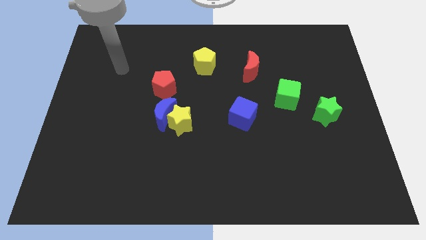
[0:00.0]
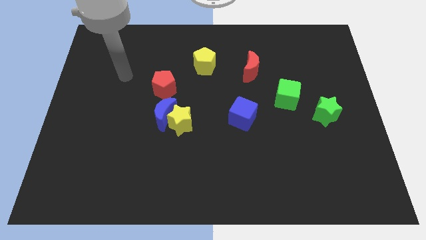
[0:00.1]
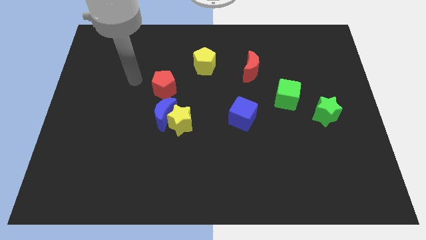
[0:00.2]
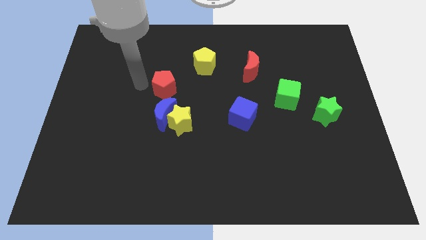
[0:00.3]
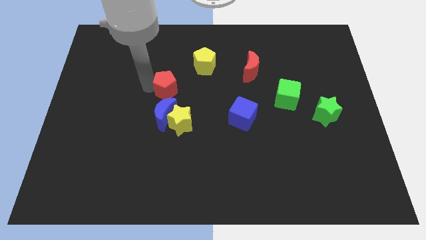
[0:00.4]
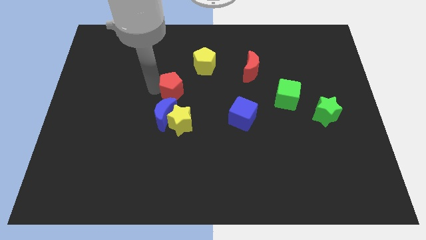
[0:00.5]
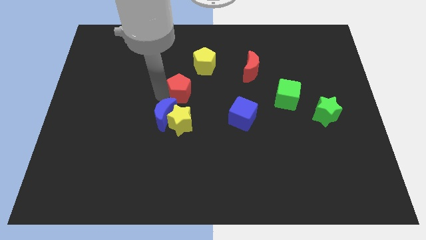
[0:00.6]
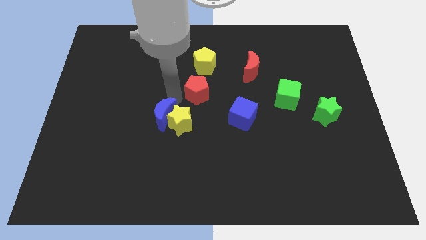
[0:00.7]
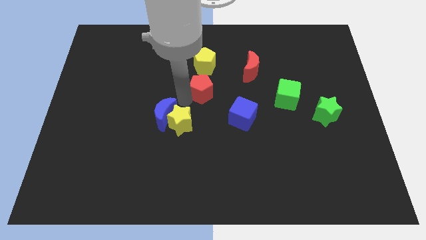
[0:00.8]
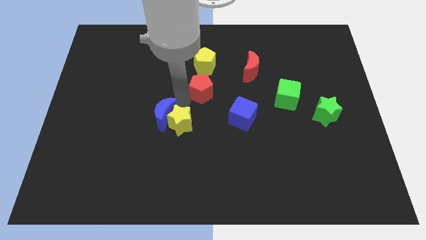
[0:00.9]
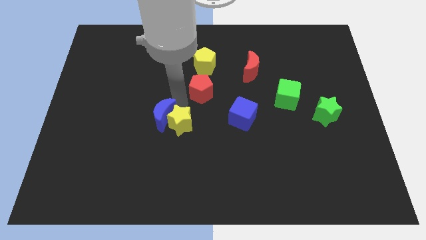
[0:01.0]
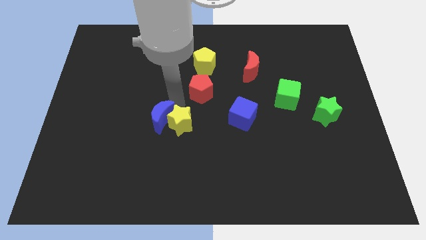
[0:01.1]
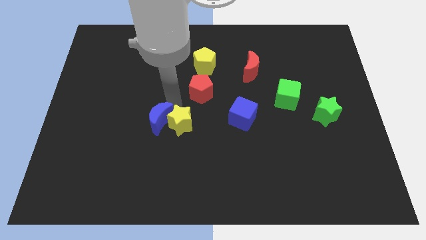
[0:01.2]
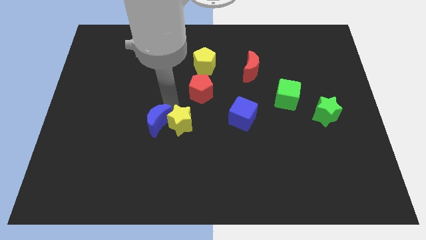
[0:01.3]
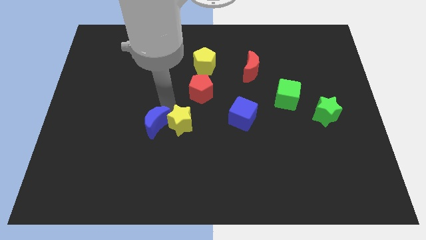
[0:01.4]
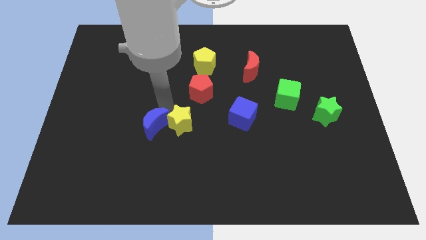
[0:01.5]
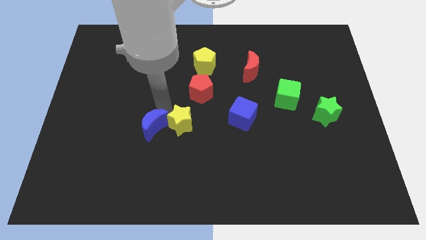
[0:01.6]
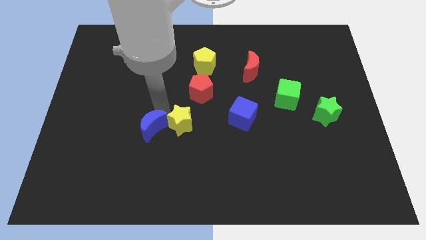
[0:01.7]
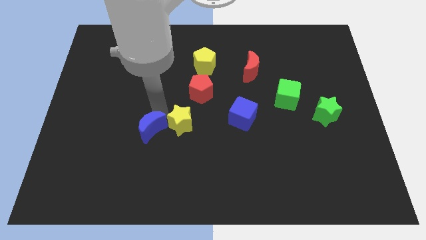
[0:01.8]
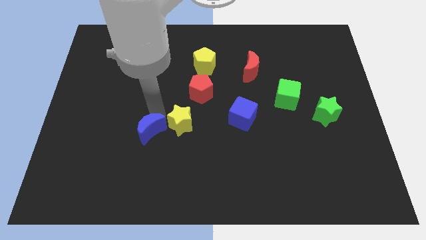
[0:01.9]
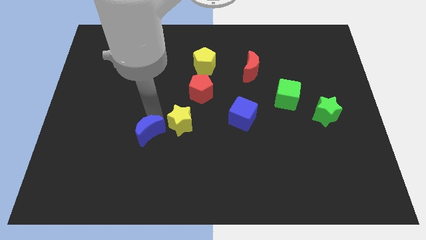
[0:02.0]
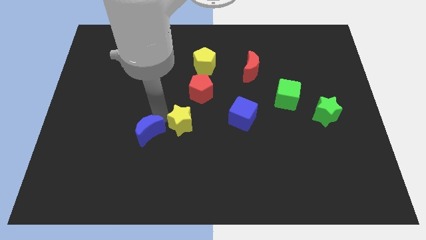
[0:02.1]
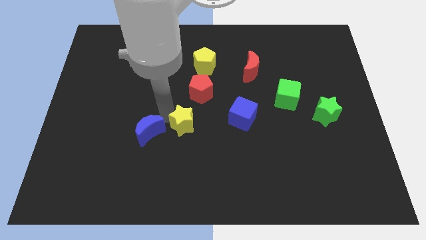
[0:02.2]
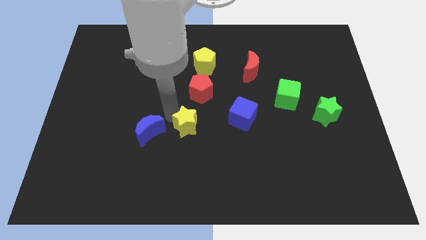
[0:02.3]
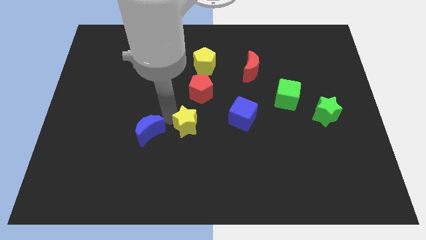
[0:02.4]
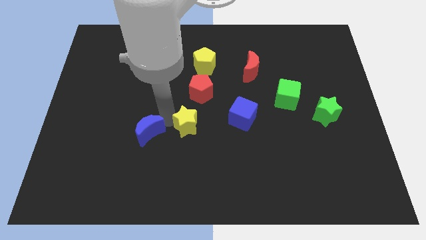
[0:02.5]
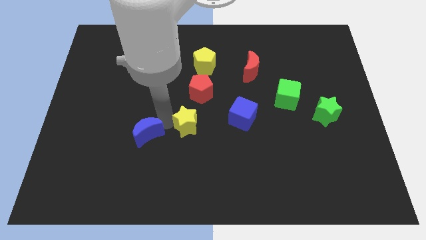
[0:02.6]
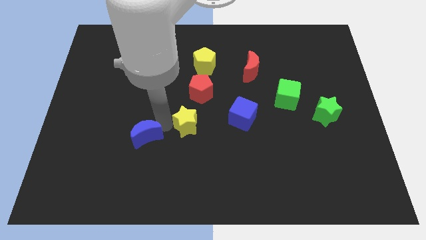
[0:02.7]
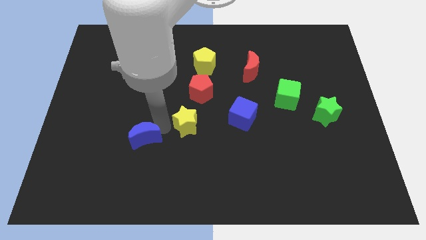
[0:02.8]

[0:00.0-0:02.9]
slightly move the blue moon downwards and left

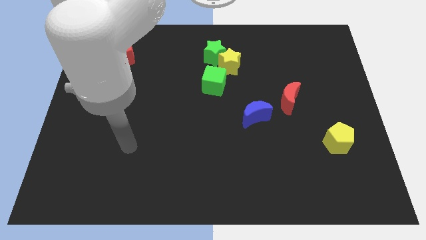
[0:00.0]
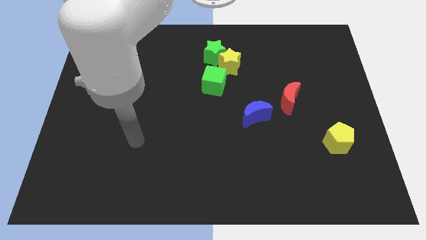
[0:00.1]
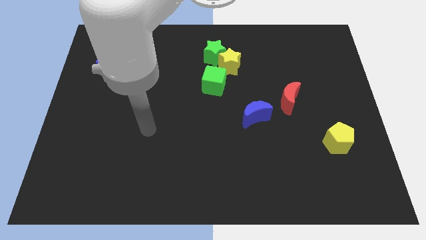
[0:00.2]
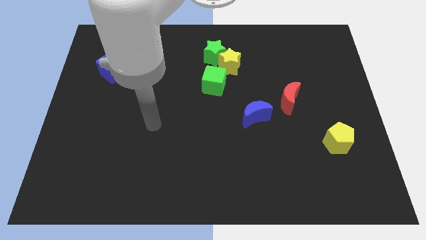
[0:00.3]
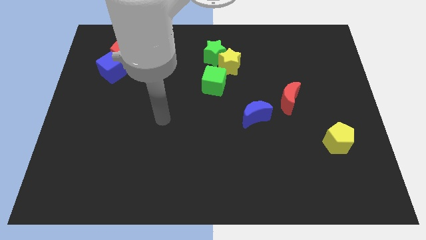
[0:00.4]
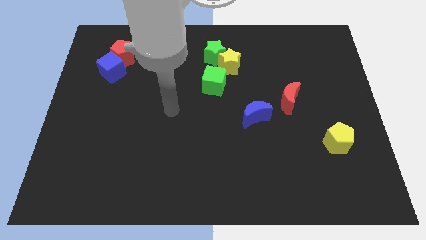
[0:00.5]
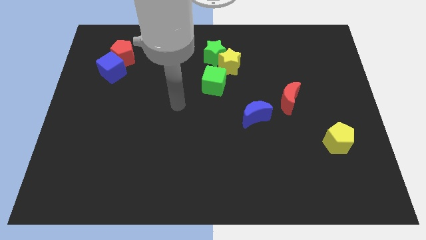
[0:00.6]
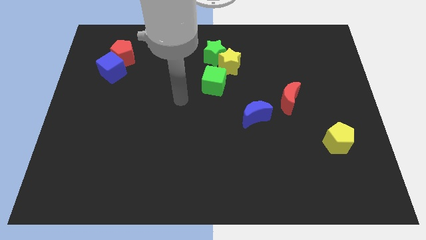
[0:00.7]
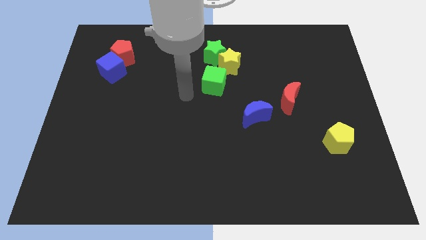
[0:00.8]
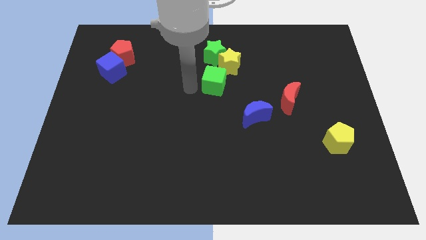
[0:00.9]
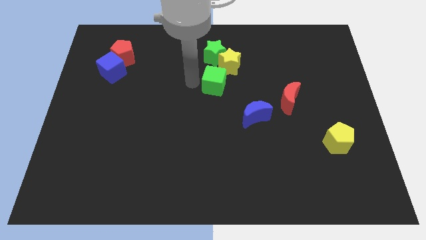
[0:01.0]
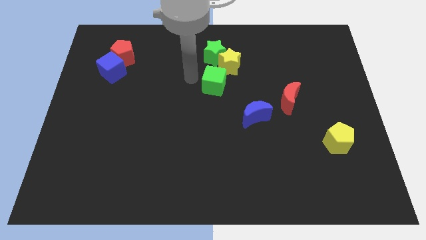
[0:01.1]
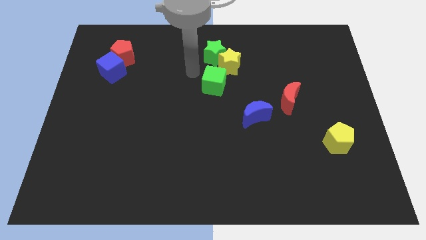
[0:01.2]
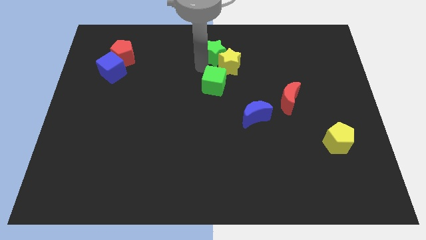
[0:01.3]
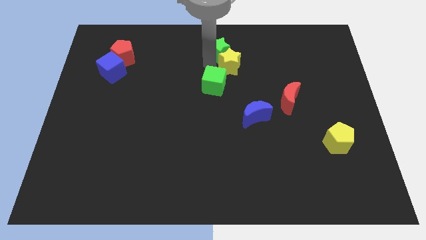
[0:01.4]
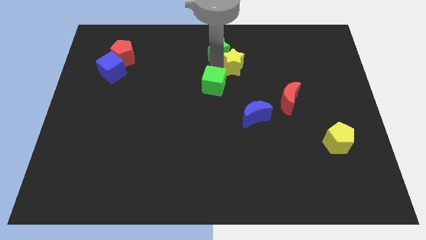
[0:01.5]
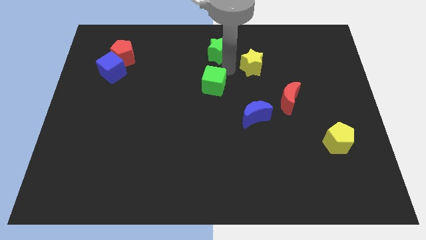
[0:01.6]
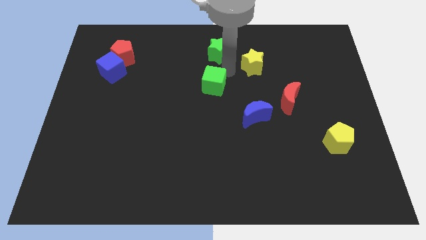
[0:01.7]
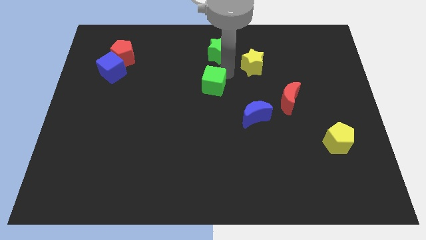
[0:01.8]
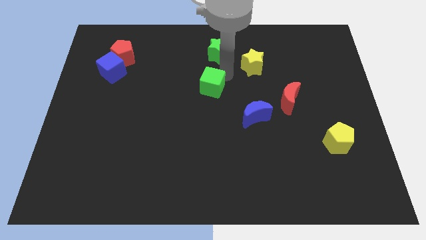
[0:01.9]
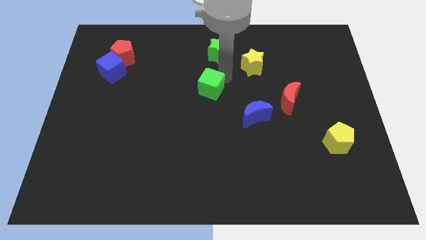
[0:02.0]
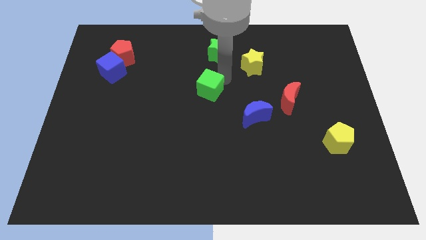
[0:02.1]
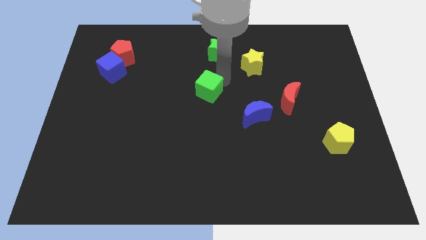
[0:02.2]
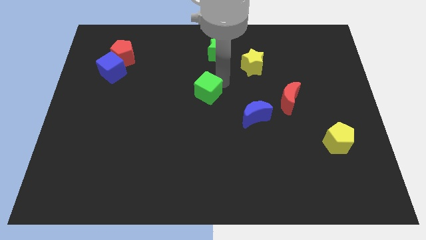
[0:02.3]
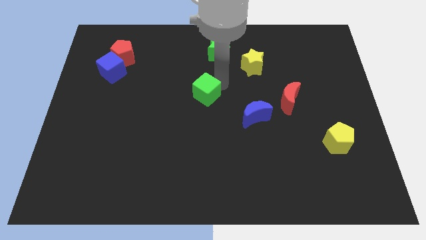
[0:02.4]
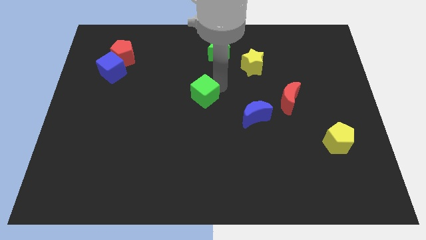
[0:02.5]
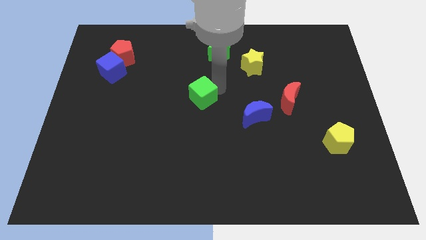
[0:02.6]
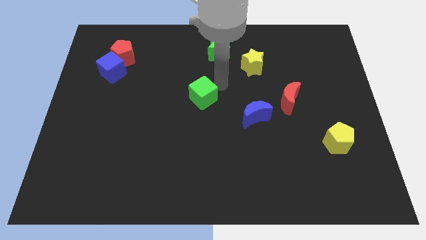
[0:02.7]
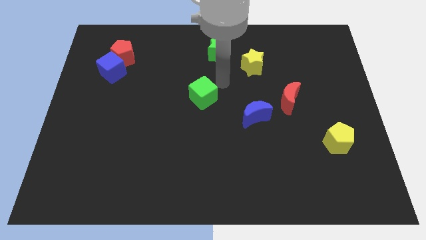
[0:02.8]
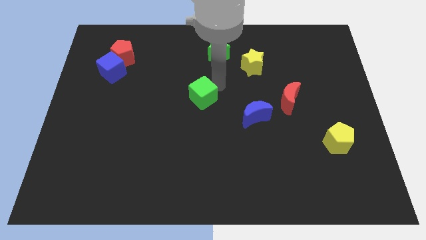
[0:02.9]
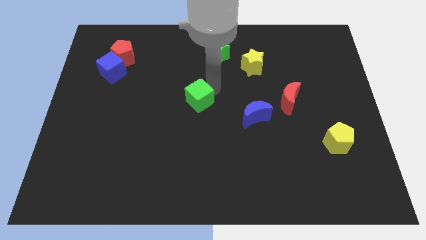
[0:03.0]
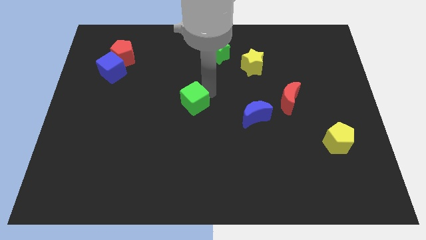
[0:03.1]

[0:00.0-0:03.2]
move the green cube downwards and then to the left a bit

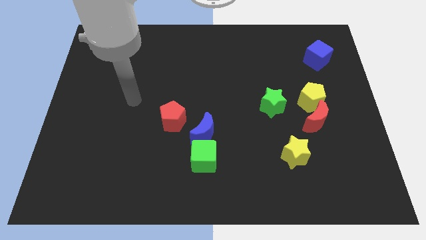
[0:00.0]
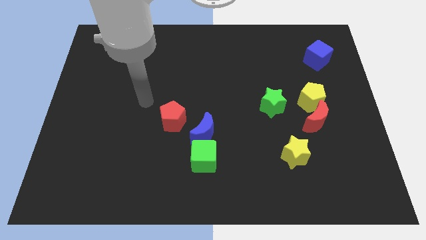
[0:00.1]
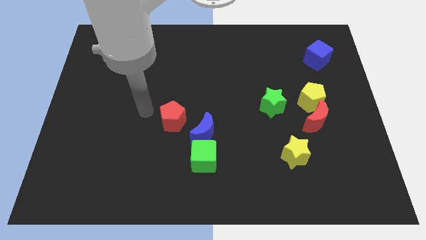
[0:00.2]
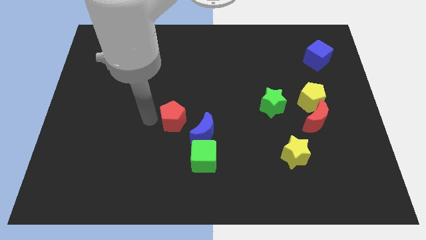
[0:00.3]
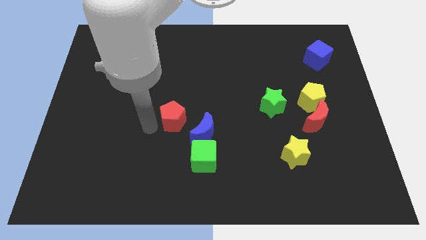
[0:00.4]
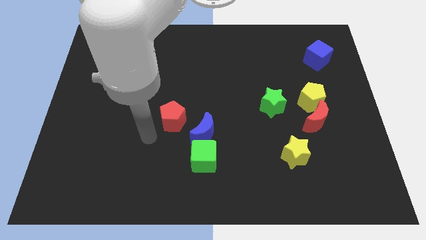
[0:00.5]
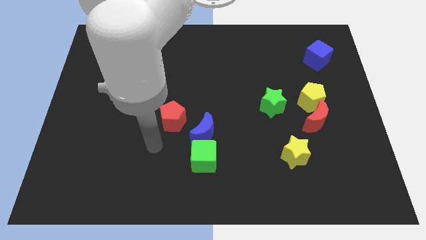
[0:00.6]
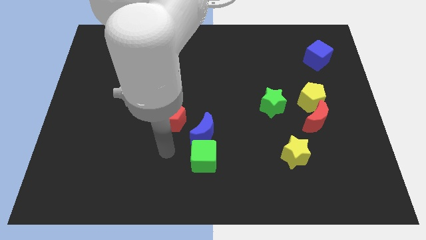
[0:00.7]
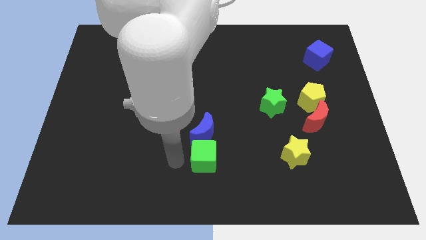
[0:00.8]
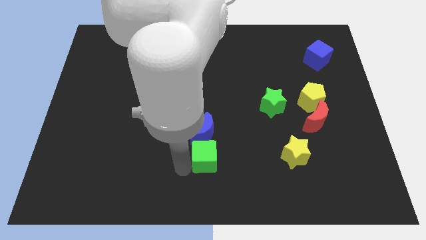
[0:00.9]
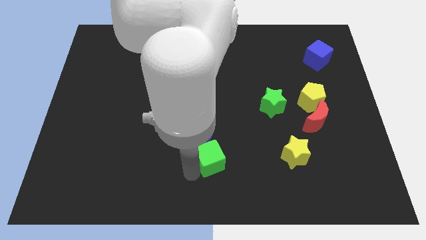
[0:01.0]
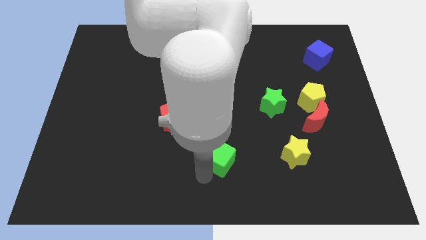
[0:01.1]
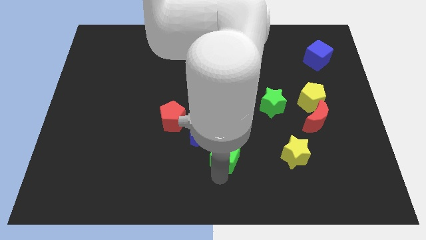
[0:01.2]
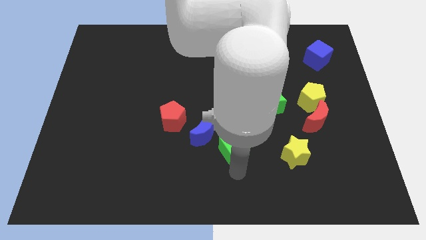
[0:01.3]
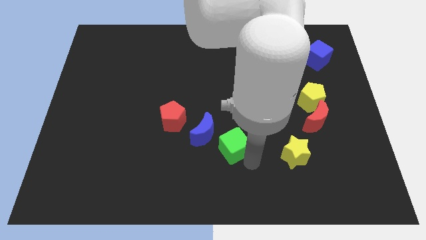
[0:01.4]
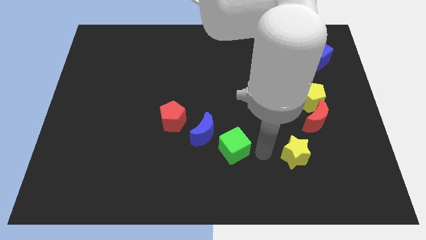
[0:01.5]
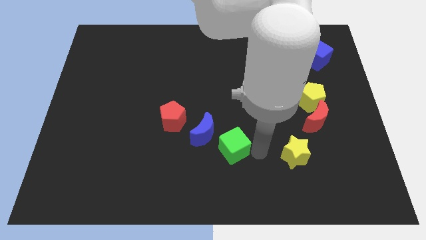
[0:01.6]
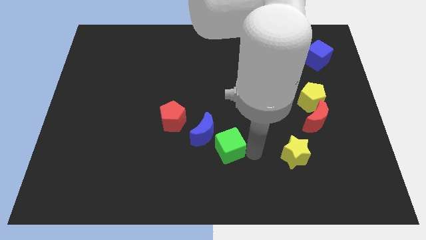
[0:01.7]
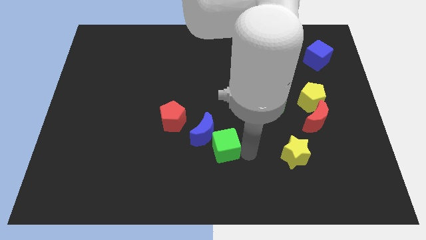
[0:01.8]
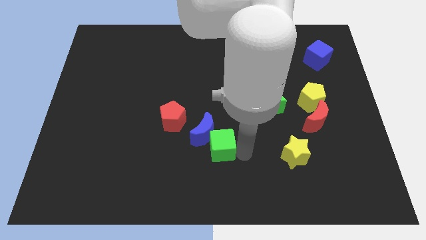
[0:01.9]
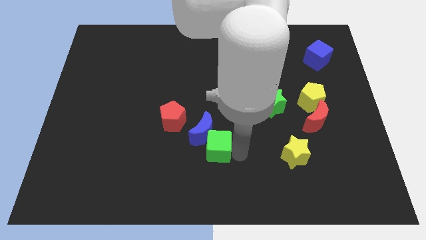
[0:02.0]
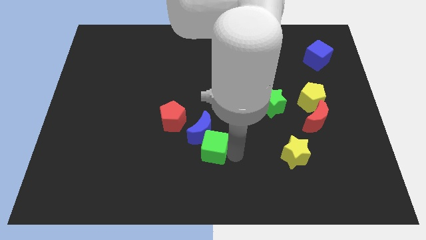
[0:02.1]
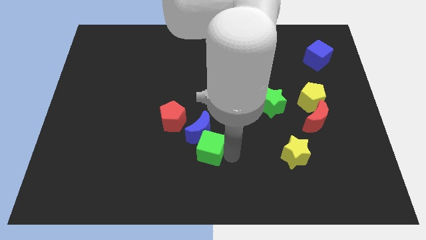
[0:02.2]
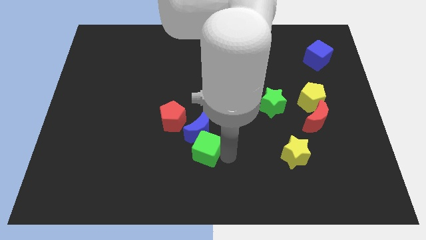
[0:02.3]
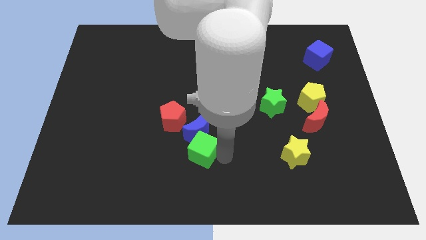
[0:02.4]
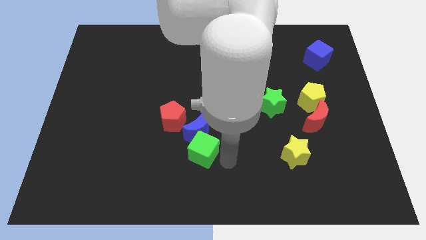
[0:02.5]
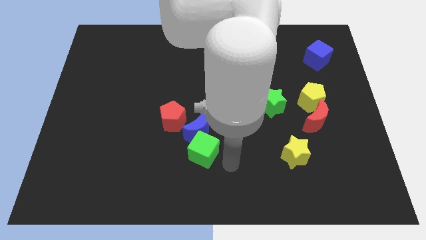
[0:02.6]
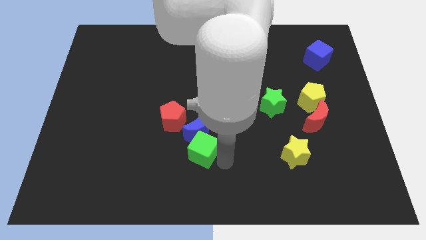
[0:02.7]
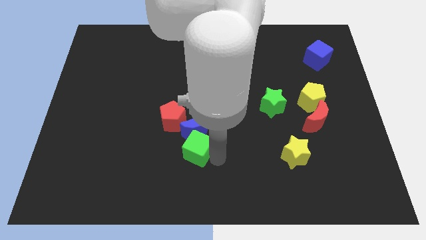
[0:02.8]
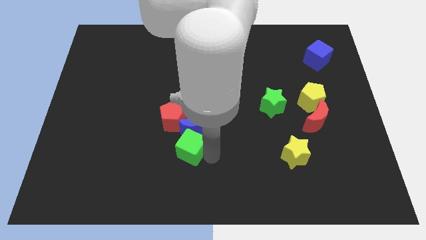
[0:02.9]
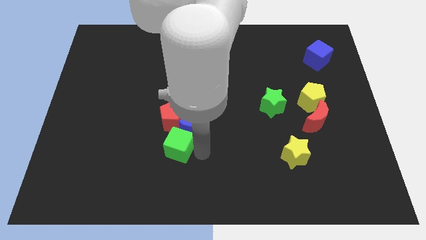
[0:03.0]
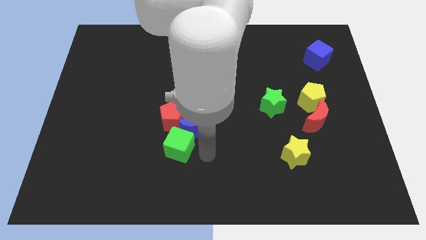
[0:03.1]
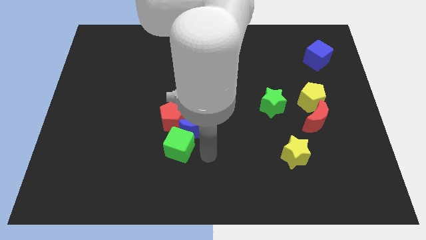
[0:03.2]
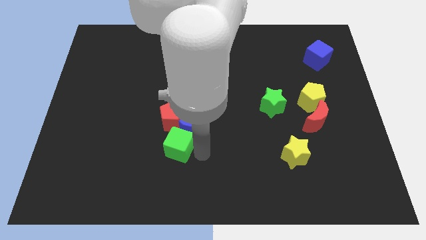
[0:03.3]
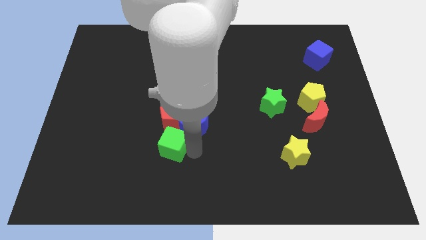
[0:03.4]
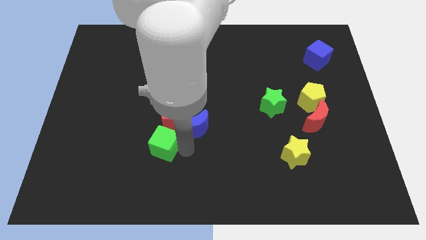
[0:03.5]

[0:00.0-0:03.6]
slightly push the green cube upwards and left diagonally
